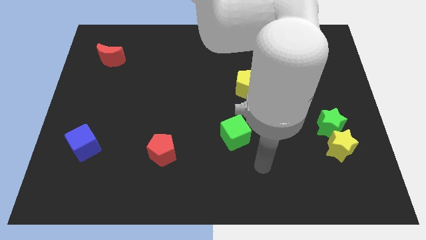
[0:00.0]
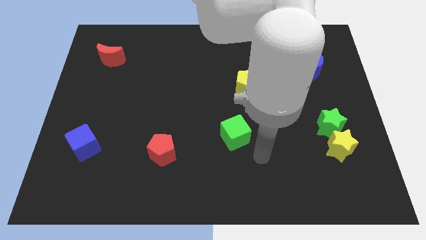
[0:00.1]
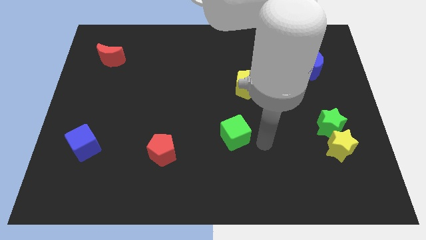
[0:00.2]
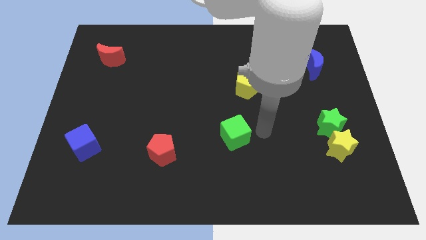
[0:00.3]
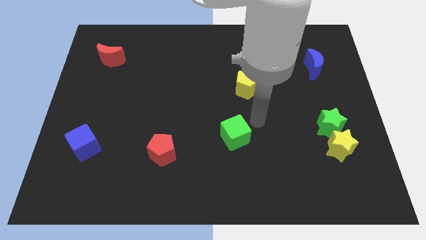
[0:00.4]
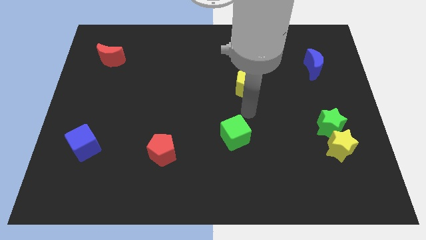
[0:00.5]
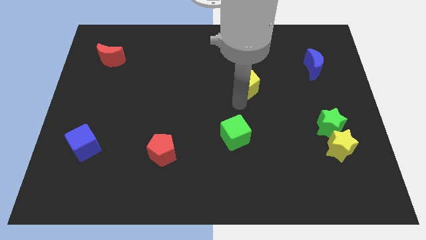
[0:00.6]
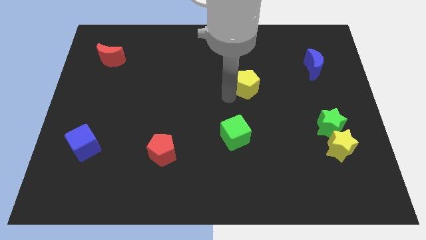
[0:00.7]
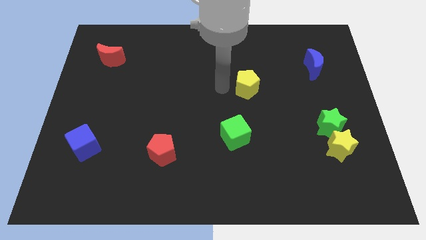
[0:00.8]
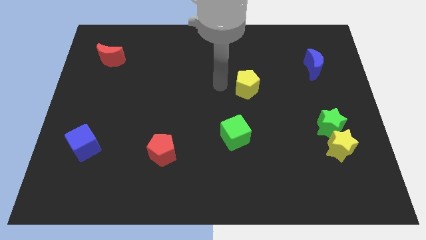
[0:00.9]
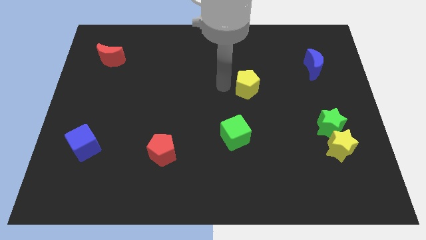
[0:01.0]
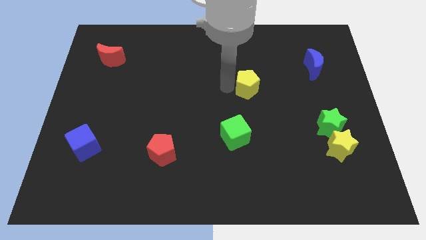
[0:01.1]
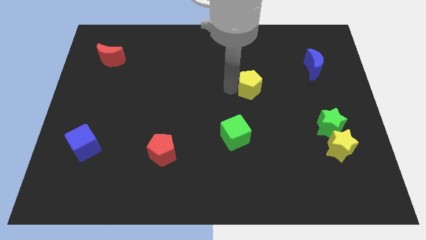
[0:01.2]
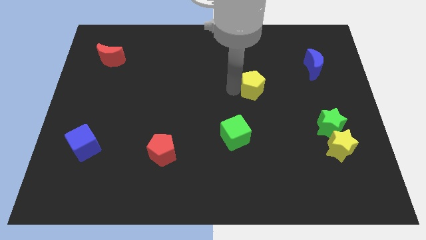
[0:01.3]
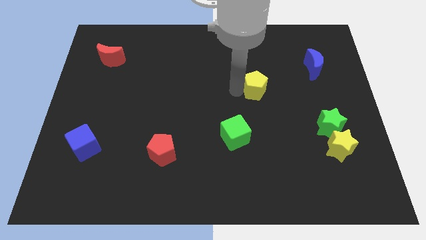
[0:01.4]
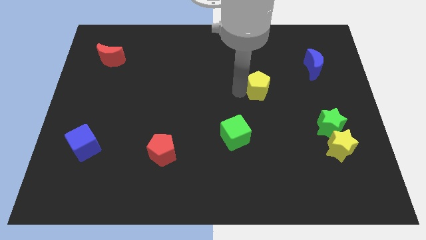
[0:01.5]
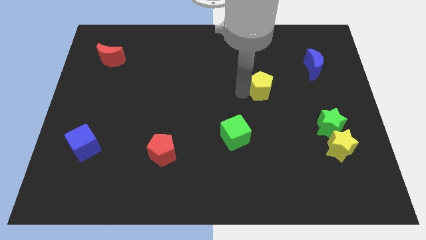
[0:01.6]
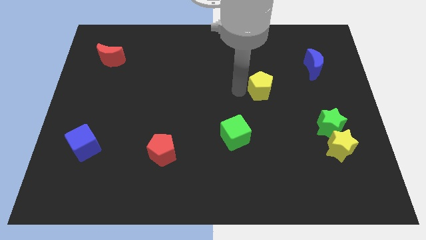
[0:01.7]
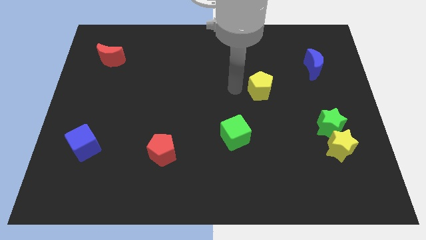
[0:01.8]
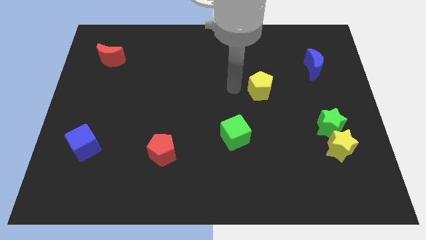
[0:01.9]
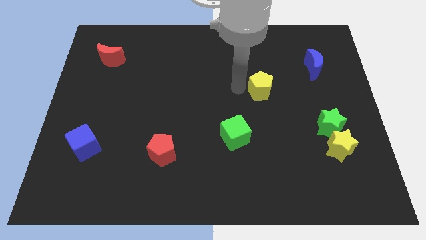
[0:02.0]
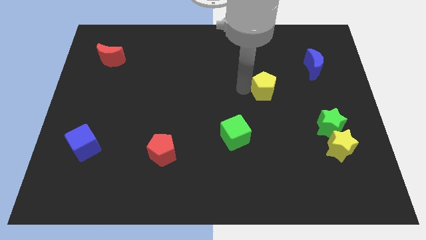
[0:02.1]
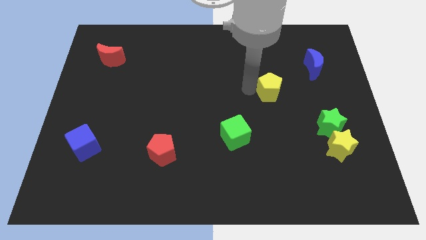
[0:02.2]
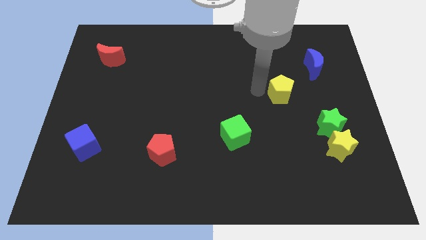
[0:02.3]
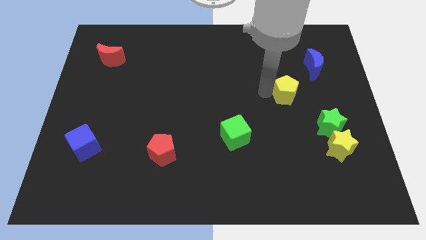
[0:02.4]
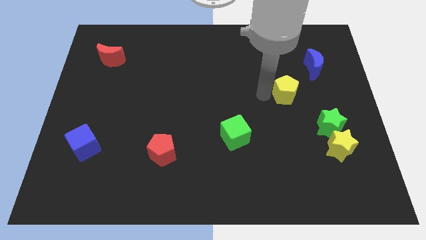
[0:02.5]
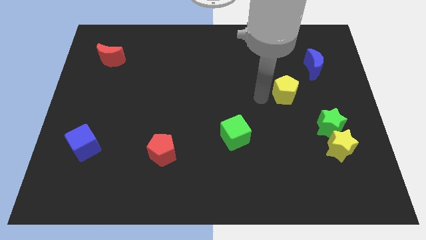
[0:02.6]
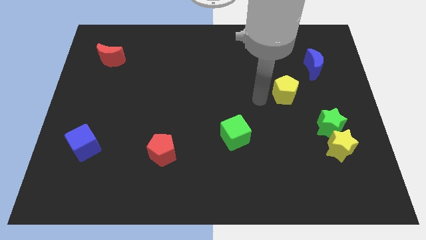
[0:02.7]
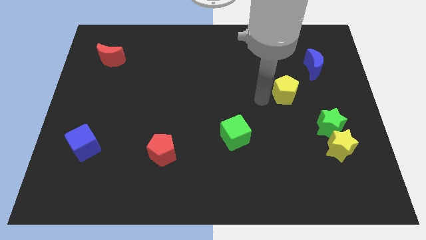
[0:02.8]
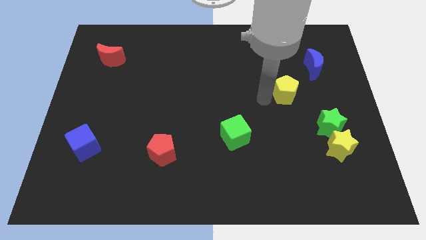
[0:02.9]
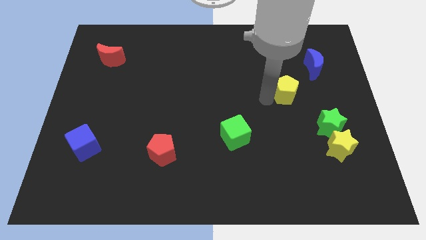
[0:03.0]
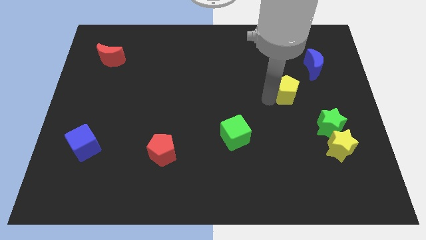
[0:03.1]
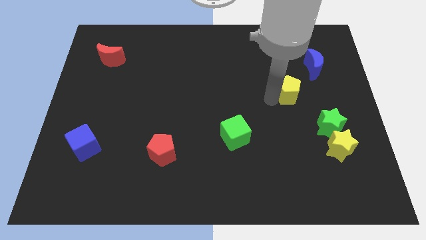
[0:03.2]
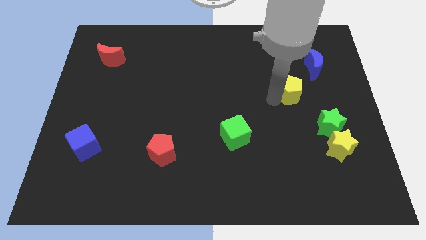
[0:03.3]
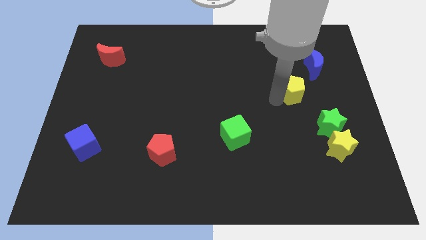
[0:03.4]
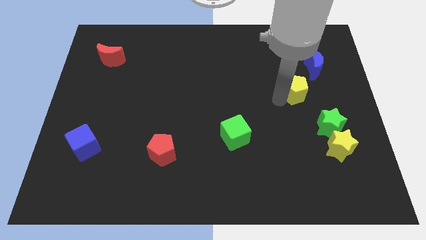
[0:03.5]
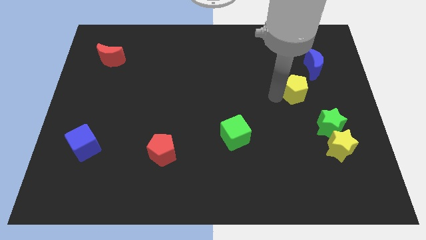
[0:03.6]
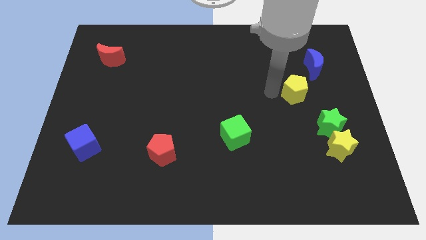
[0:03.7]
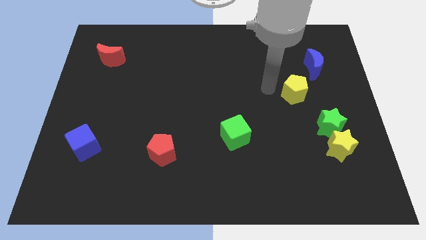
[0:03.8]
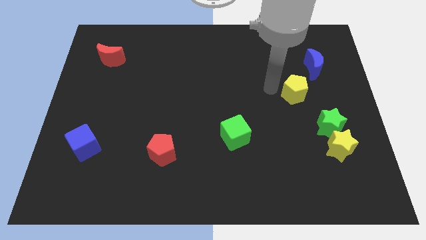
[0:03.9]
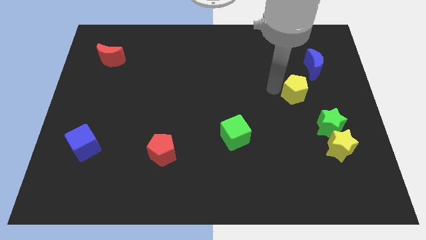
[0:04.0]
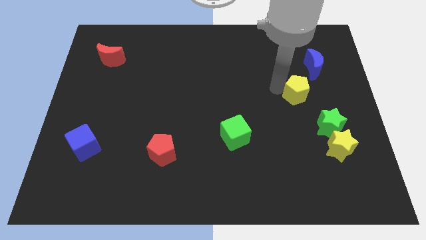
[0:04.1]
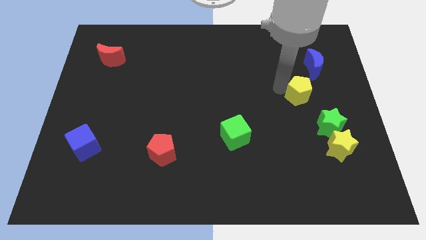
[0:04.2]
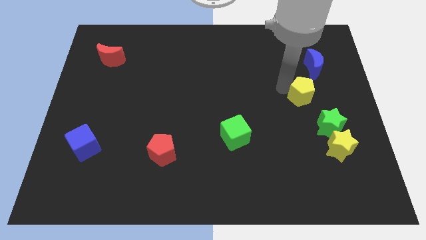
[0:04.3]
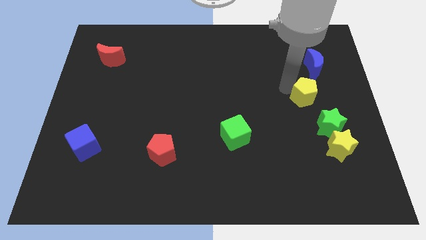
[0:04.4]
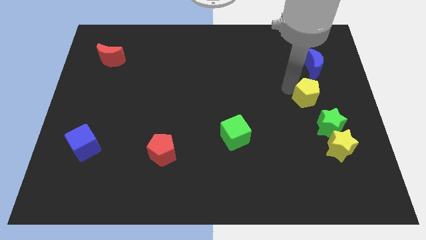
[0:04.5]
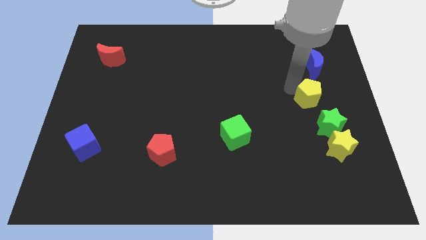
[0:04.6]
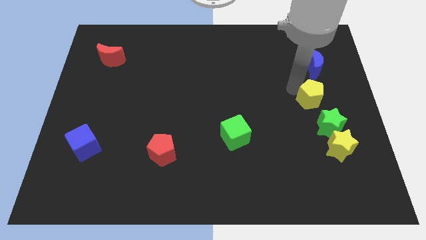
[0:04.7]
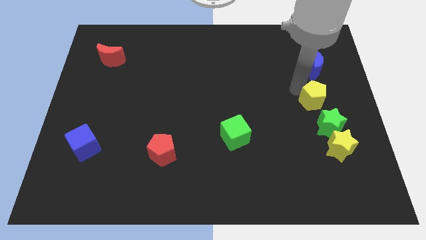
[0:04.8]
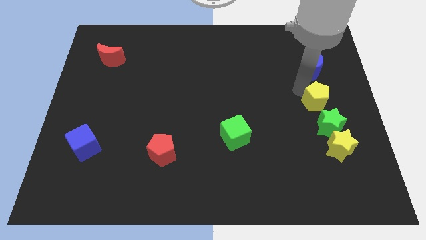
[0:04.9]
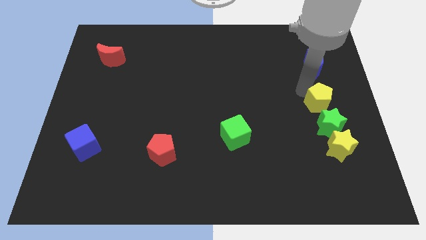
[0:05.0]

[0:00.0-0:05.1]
put the yellow pentagon to the center right

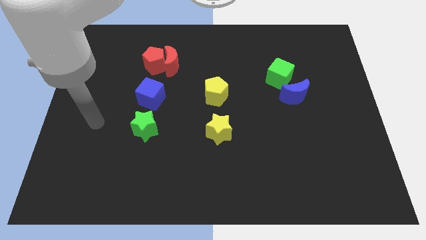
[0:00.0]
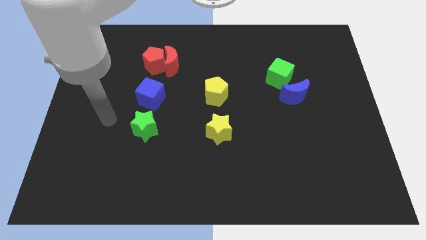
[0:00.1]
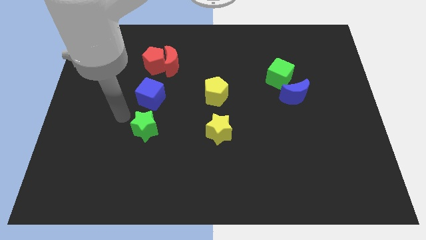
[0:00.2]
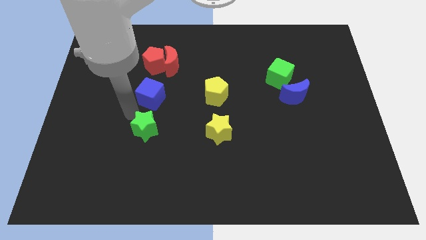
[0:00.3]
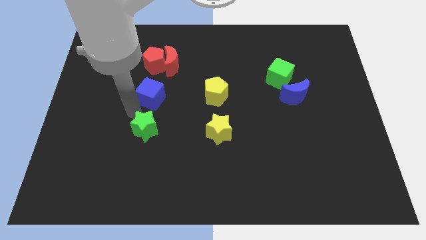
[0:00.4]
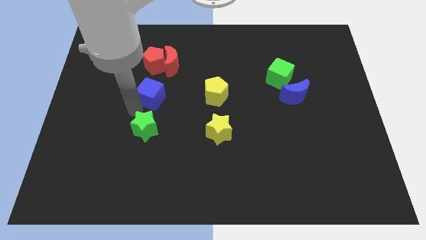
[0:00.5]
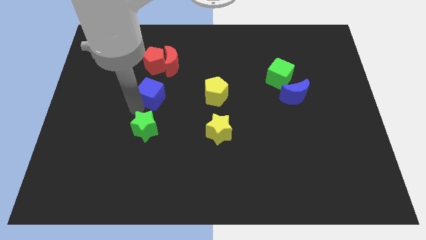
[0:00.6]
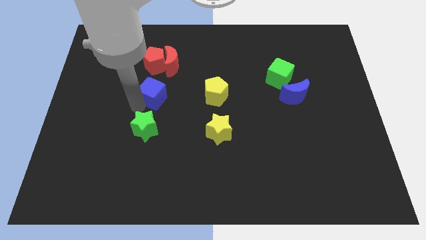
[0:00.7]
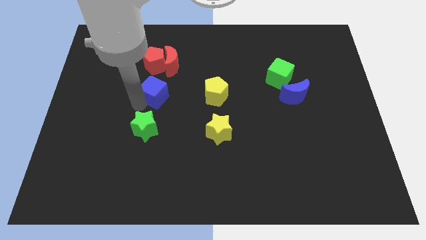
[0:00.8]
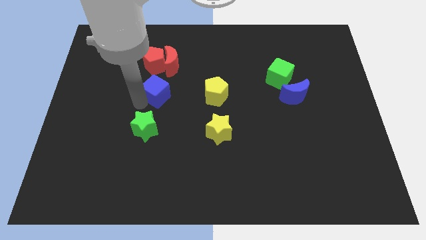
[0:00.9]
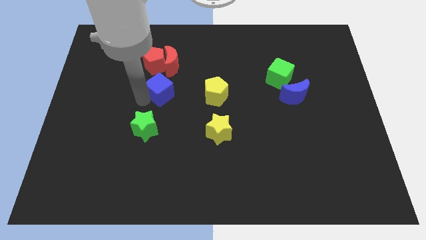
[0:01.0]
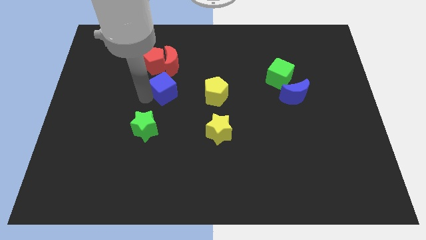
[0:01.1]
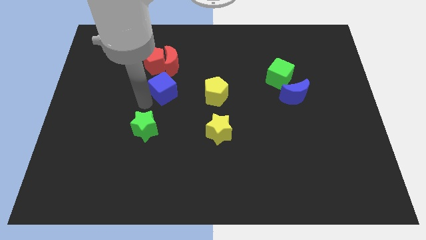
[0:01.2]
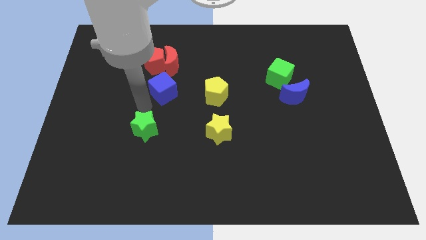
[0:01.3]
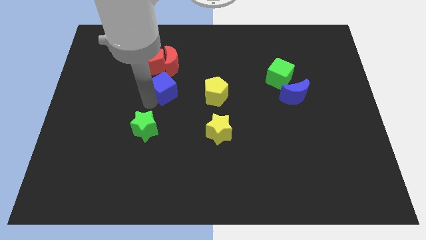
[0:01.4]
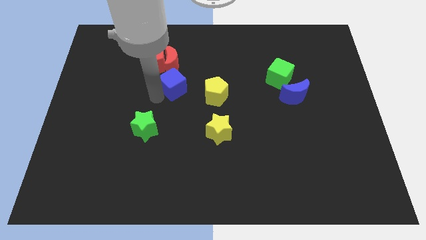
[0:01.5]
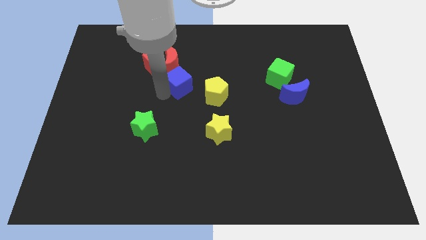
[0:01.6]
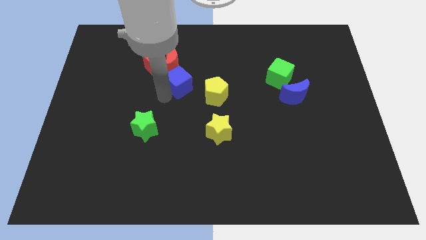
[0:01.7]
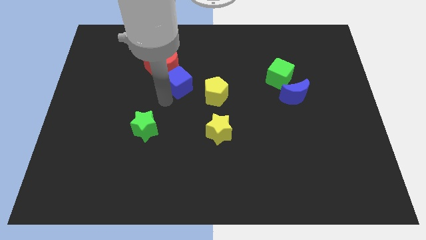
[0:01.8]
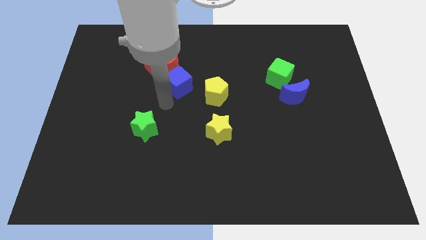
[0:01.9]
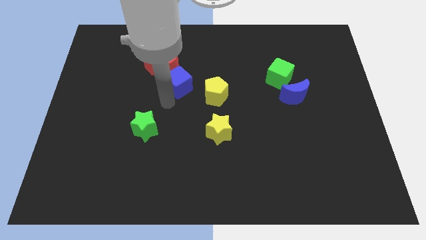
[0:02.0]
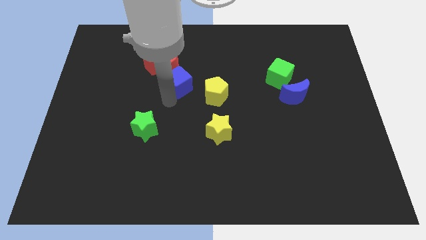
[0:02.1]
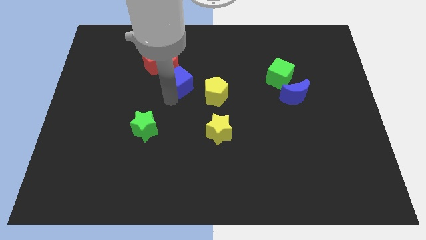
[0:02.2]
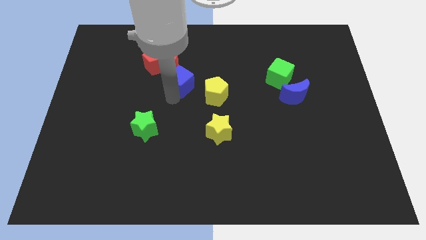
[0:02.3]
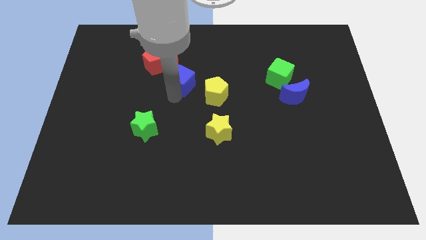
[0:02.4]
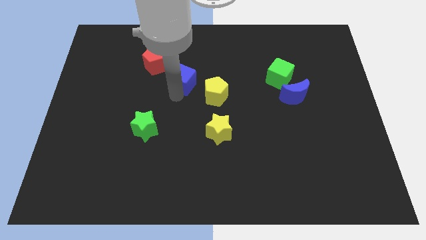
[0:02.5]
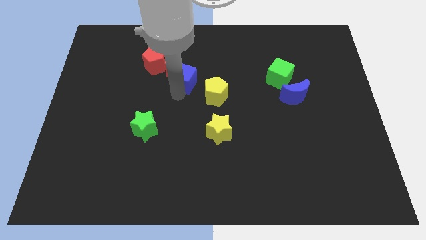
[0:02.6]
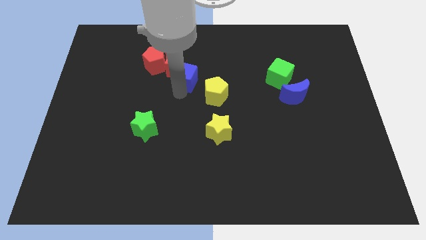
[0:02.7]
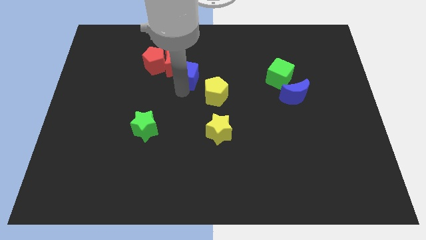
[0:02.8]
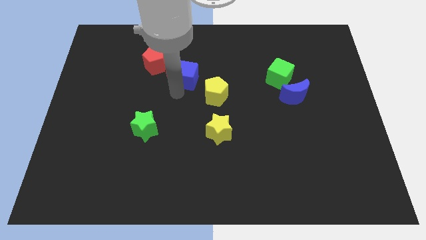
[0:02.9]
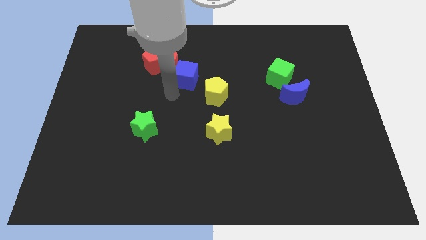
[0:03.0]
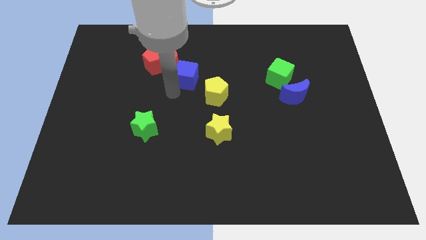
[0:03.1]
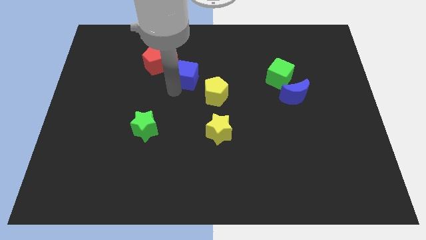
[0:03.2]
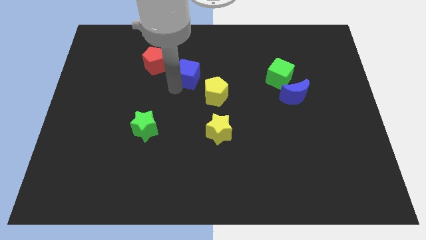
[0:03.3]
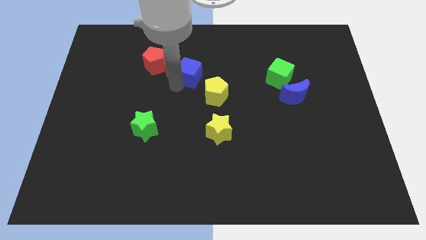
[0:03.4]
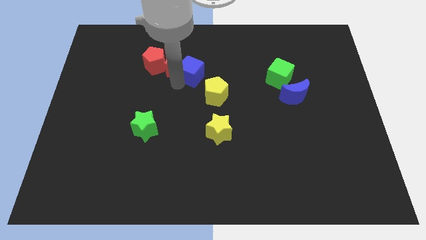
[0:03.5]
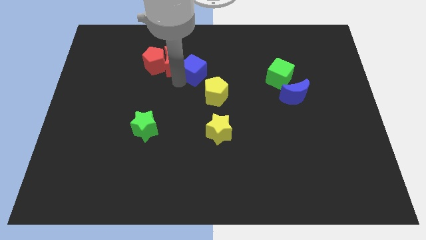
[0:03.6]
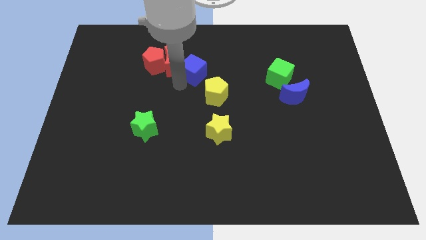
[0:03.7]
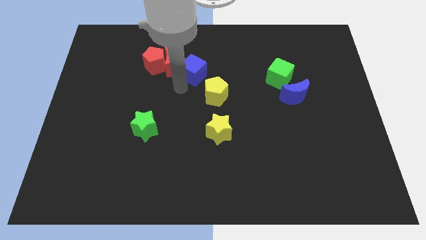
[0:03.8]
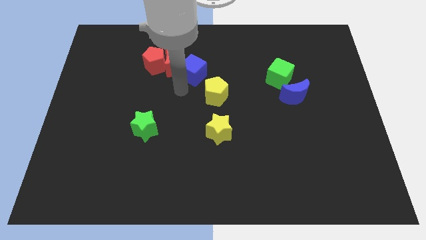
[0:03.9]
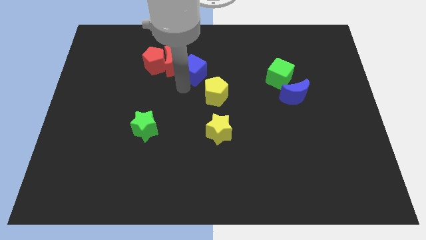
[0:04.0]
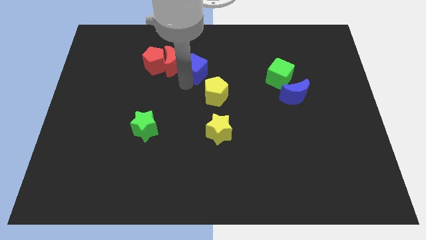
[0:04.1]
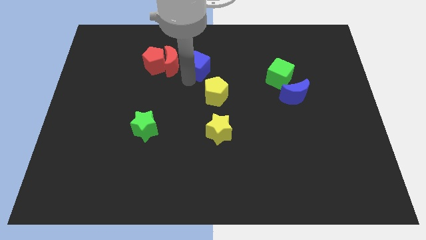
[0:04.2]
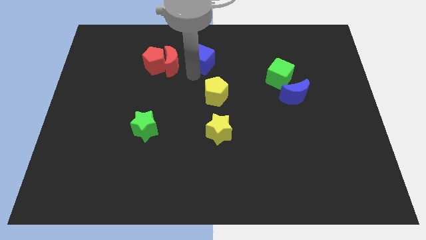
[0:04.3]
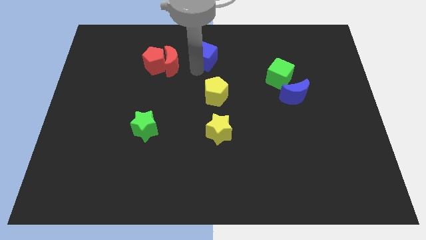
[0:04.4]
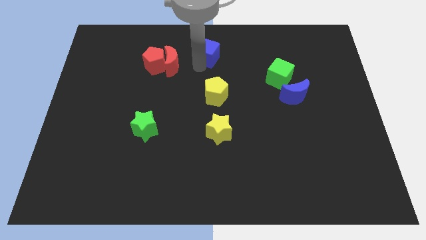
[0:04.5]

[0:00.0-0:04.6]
slide the blue cube to the top side
